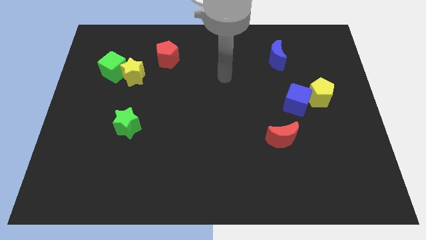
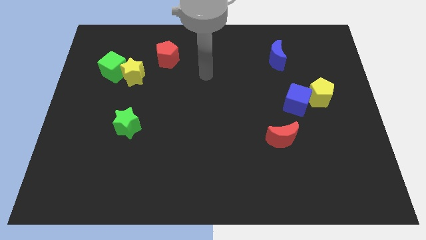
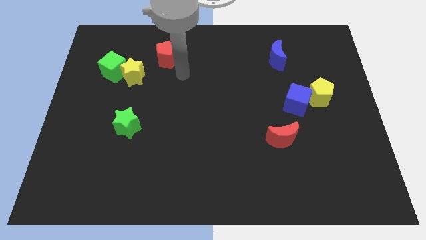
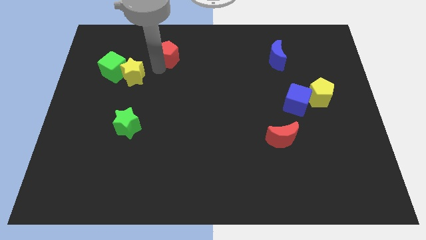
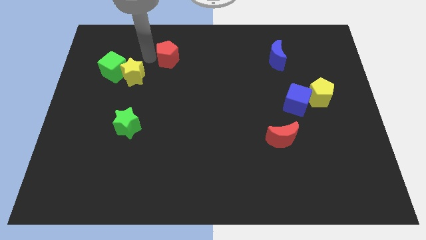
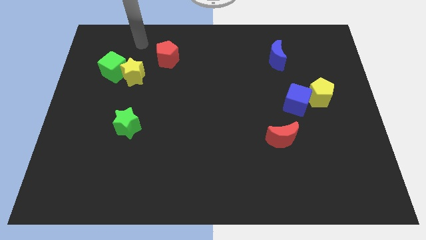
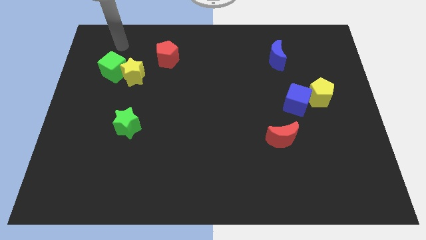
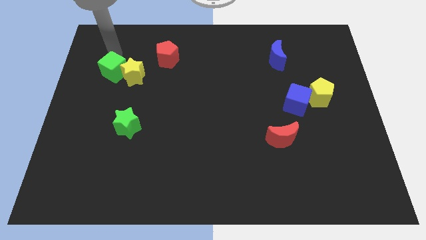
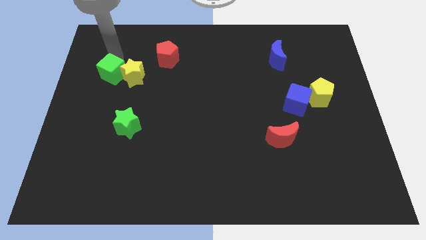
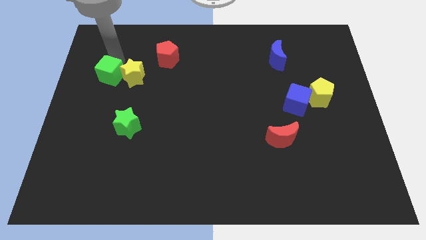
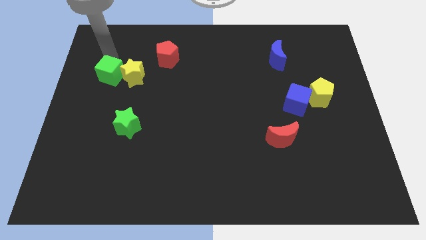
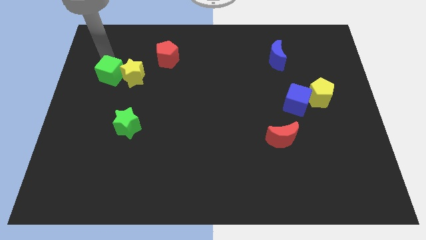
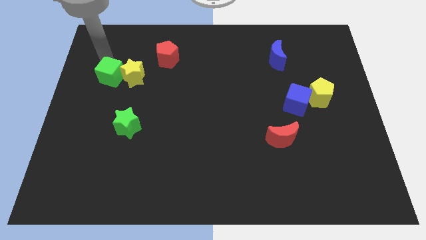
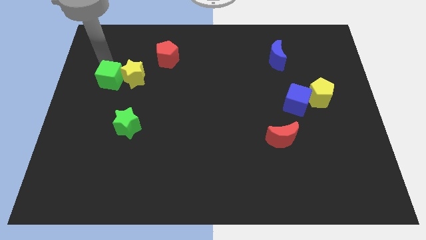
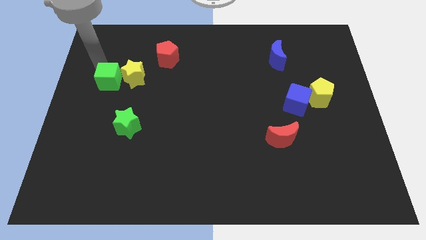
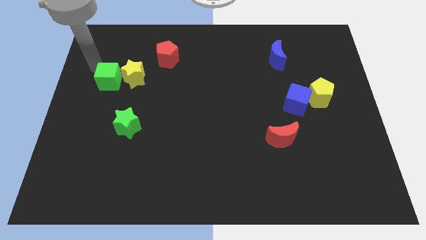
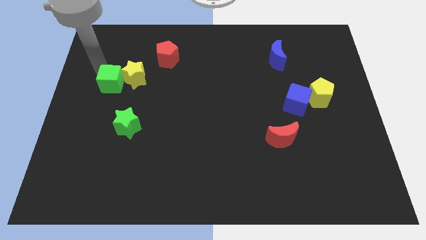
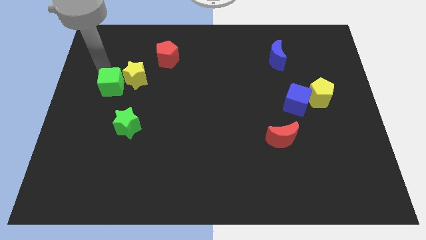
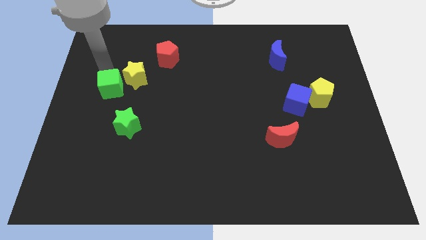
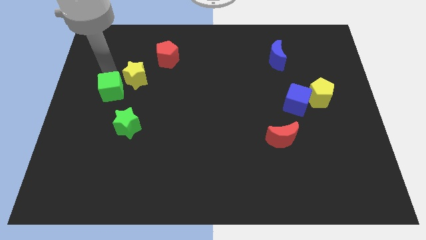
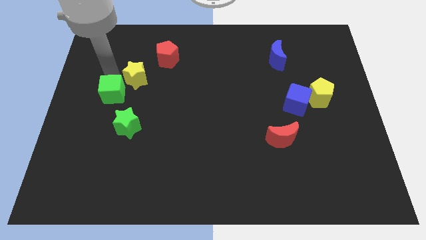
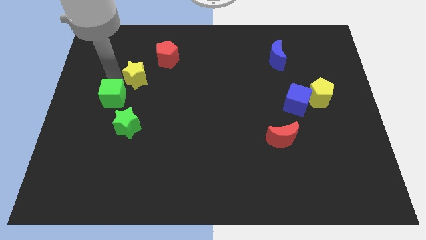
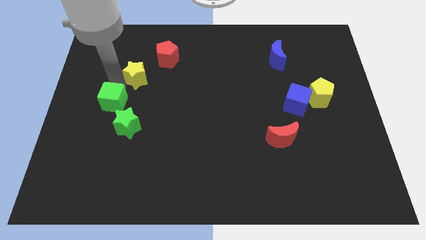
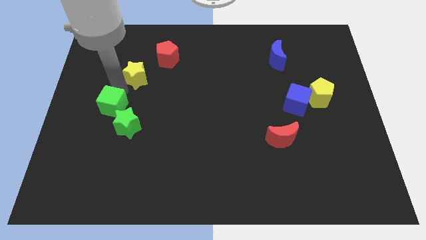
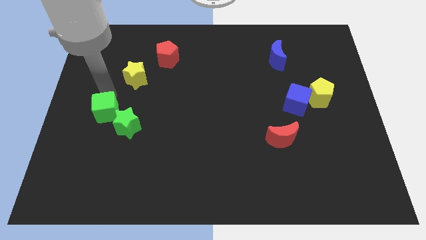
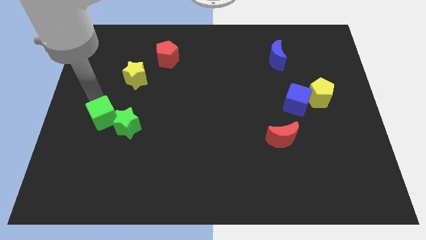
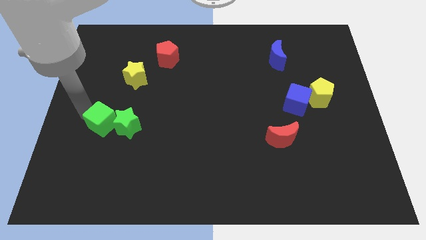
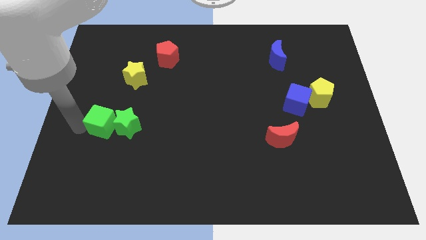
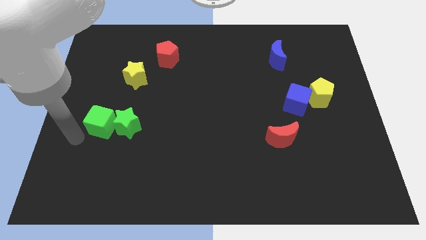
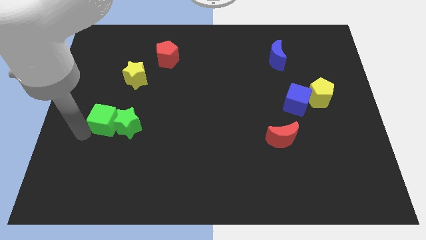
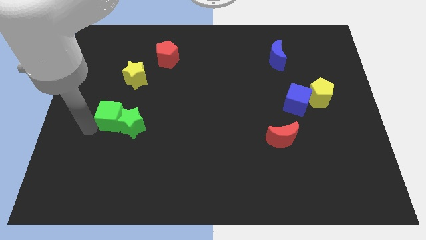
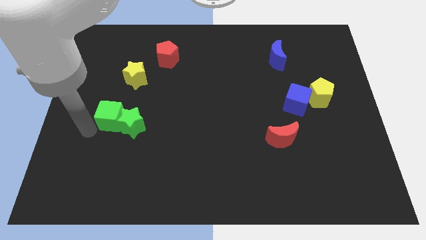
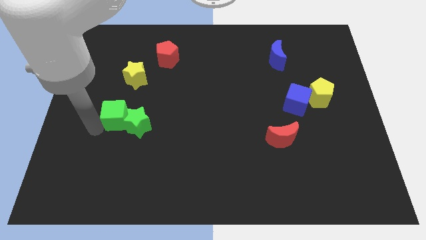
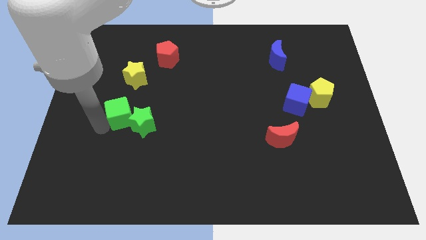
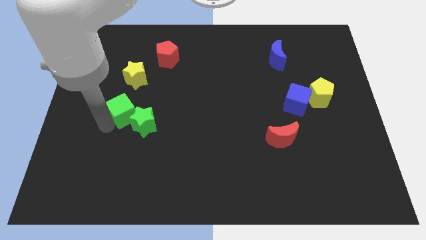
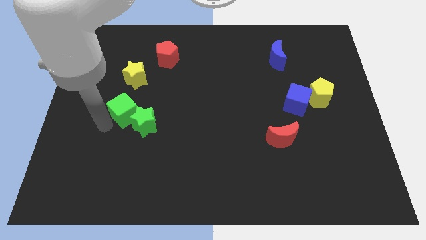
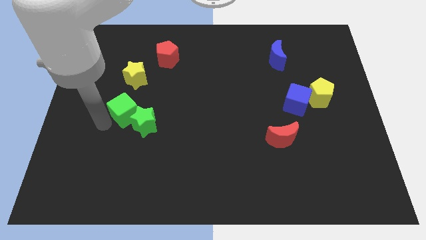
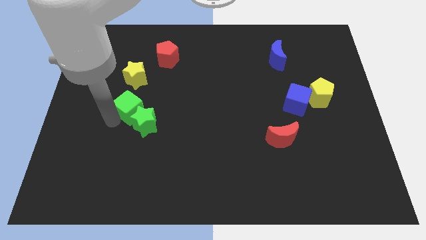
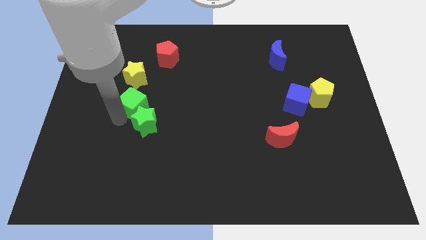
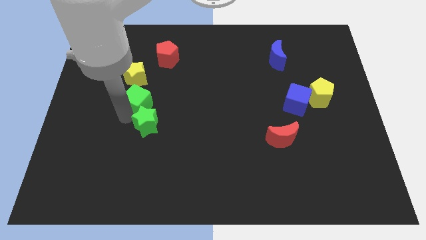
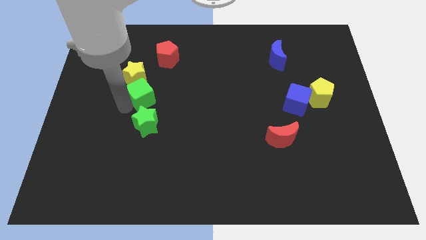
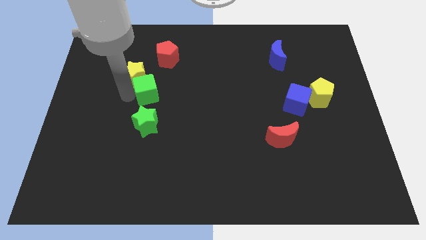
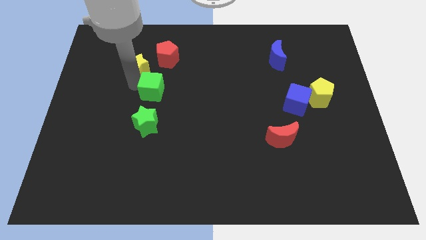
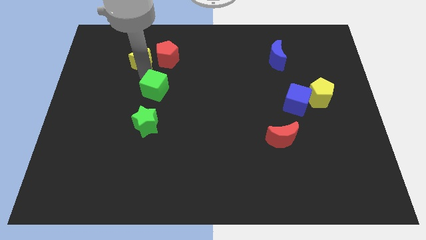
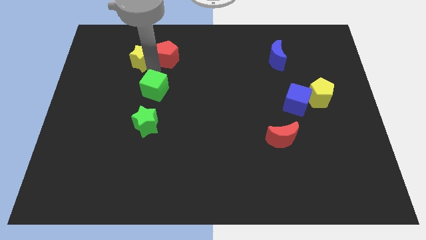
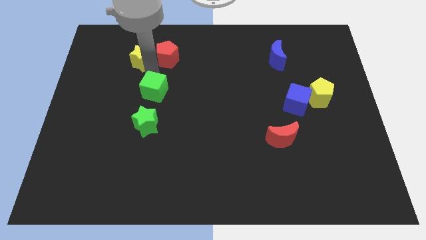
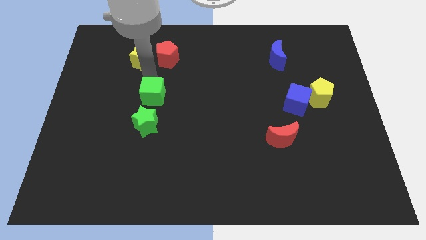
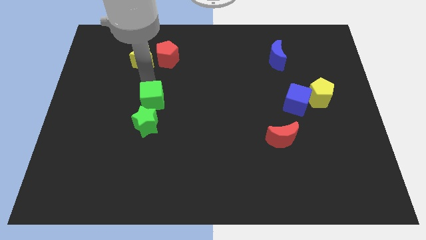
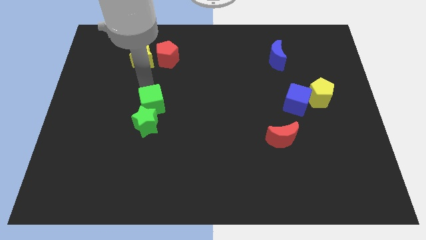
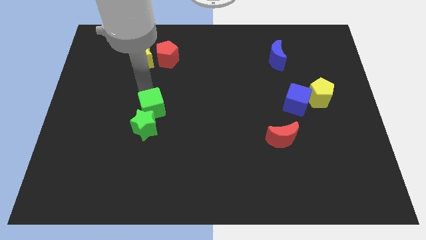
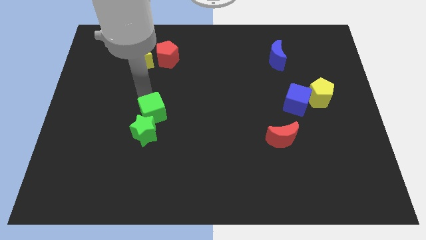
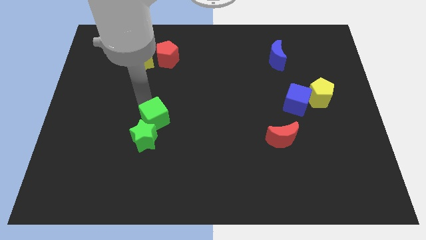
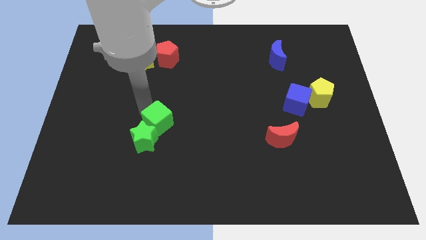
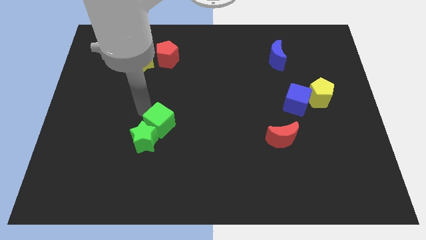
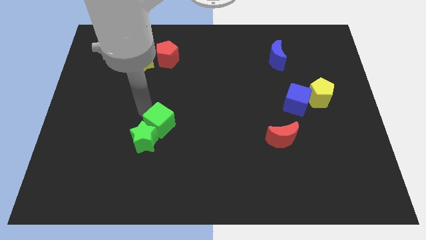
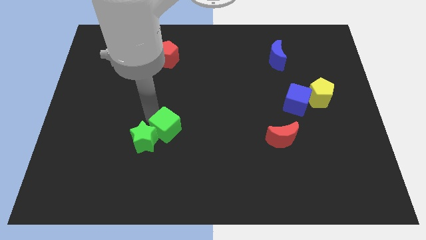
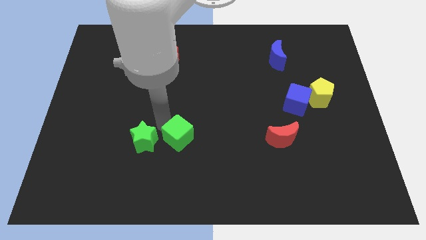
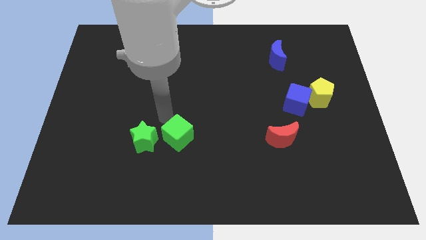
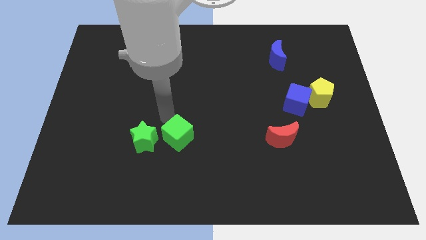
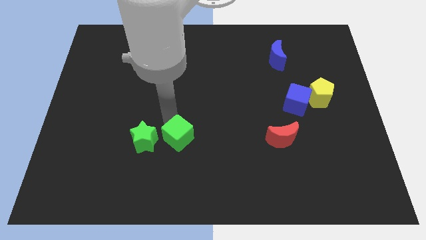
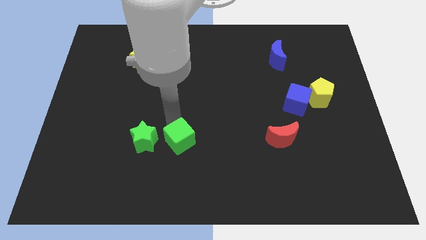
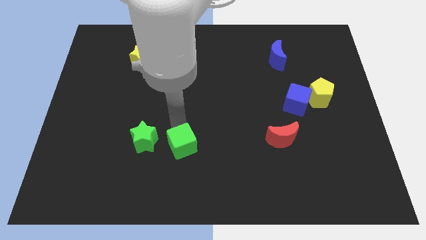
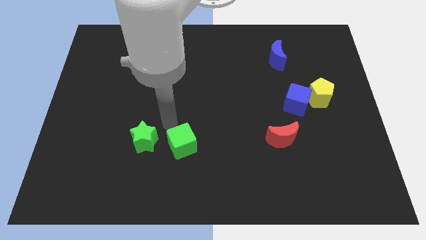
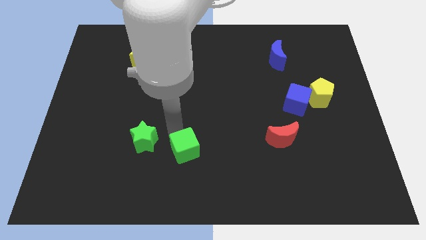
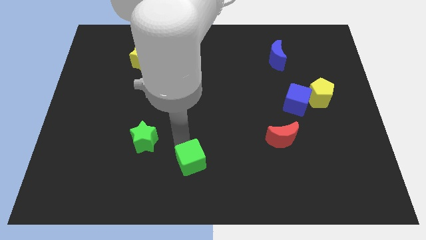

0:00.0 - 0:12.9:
move the green cube to the bottom side
